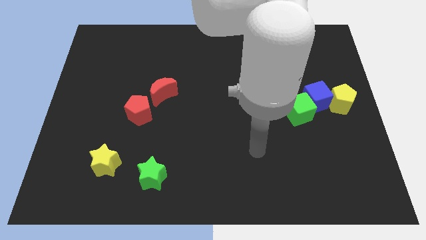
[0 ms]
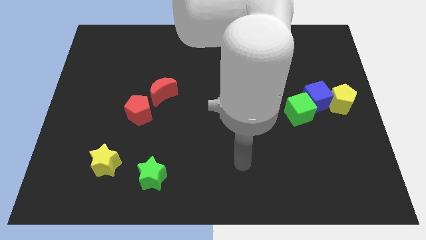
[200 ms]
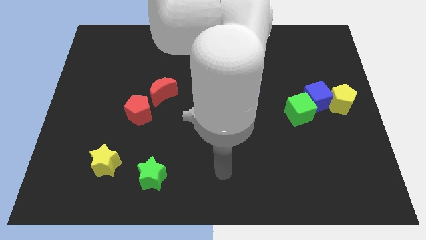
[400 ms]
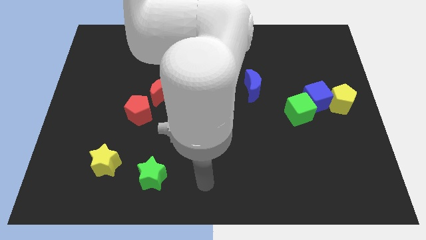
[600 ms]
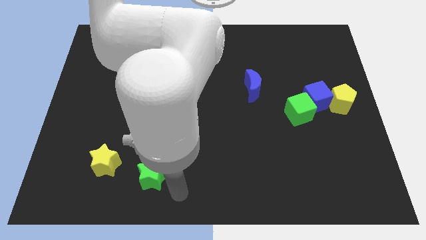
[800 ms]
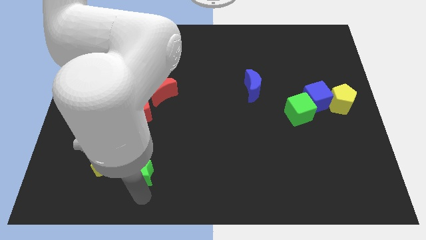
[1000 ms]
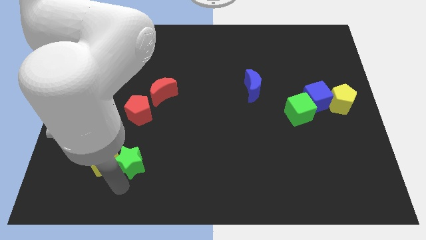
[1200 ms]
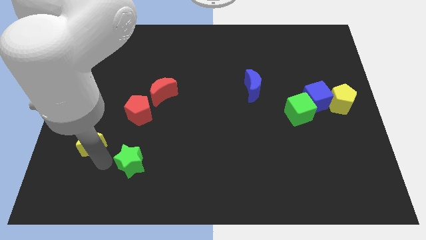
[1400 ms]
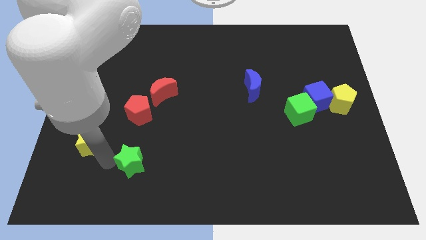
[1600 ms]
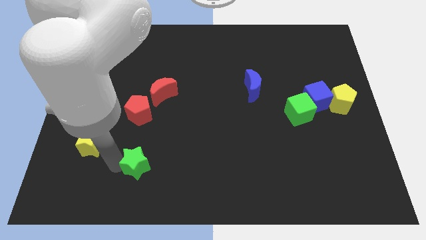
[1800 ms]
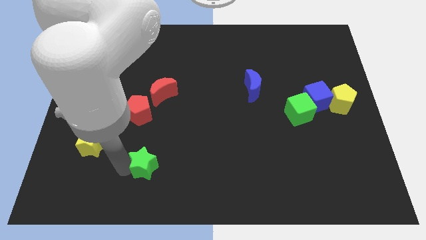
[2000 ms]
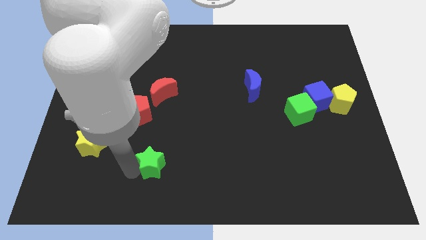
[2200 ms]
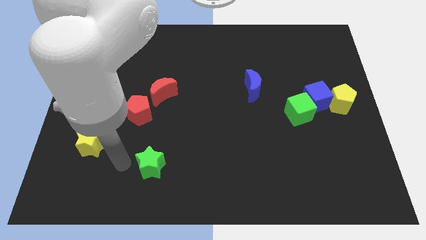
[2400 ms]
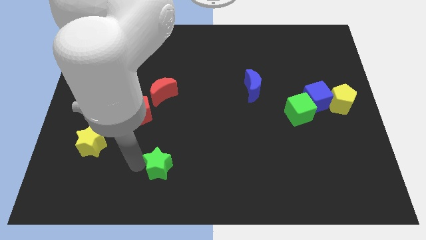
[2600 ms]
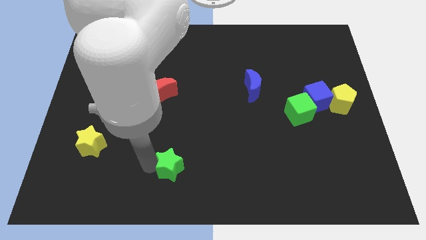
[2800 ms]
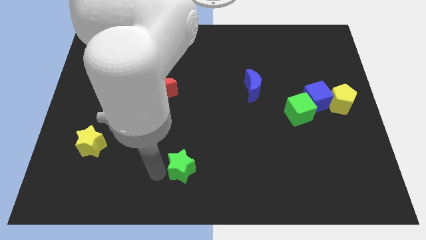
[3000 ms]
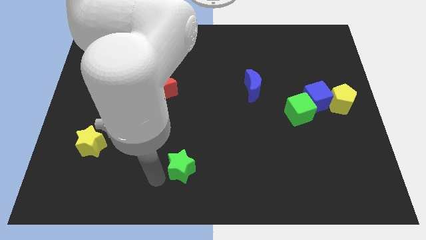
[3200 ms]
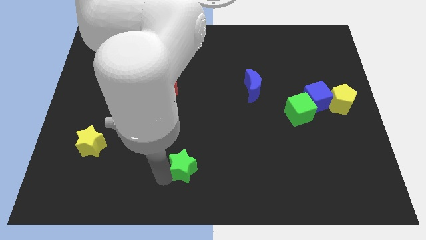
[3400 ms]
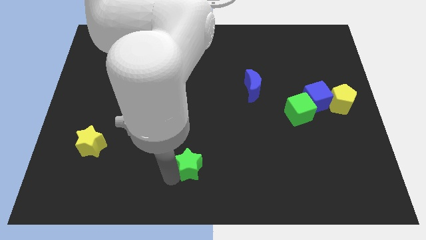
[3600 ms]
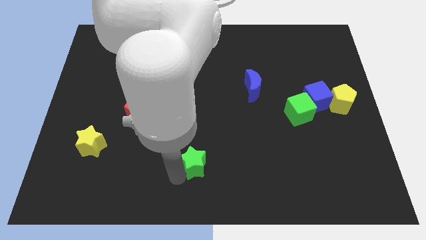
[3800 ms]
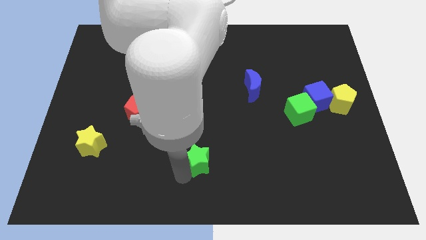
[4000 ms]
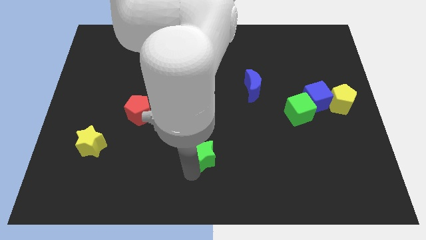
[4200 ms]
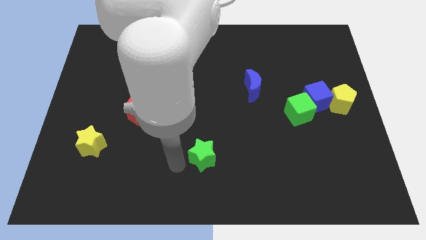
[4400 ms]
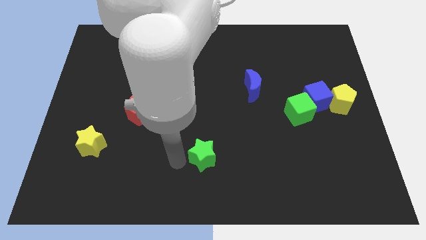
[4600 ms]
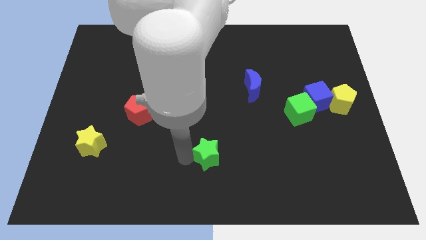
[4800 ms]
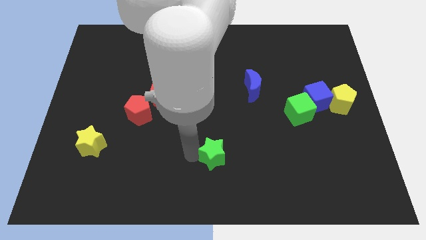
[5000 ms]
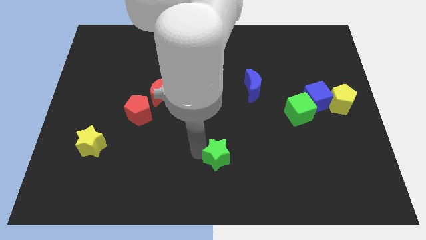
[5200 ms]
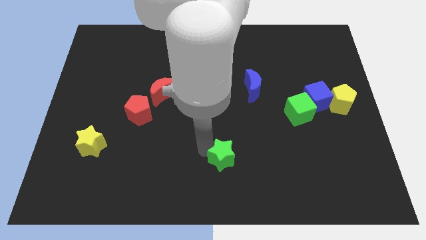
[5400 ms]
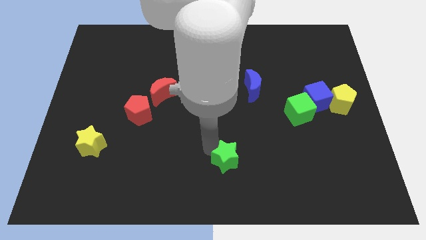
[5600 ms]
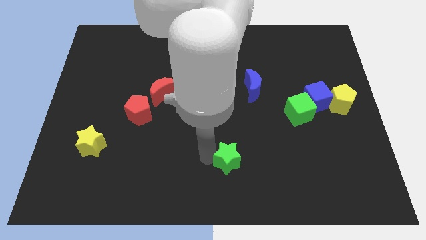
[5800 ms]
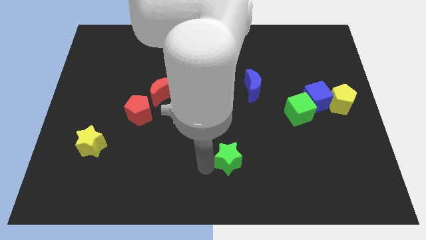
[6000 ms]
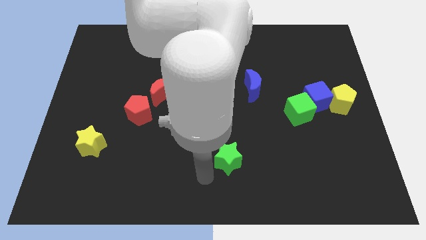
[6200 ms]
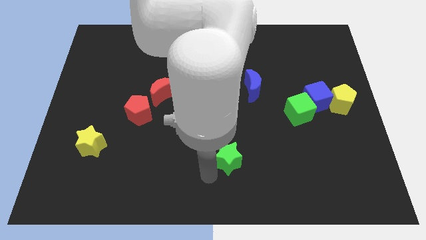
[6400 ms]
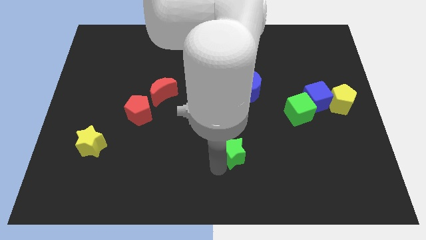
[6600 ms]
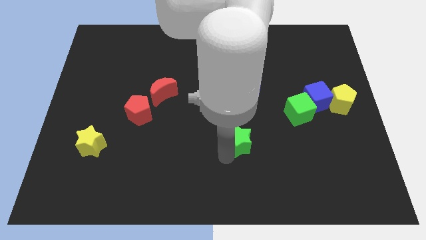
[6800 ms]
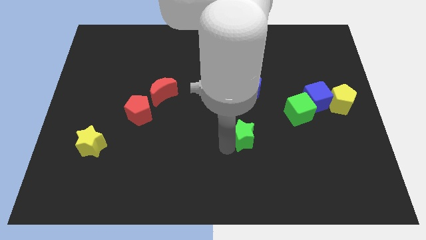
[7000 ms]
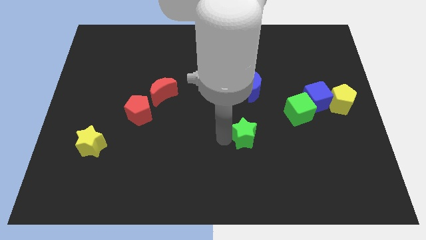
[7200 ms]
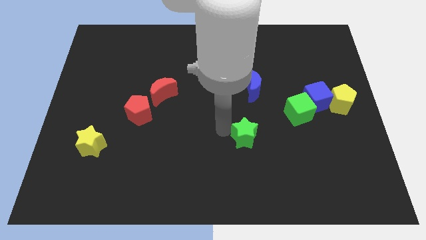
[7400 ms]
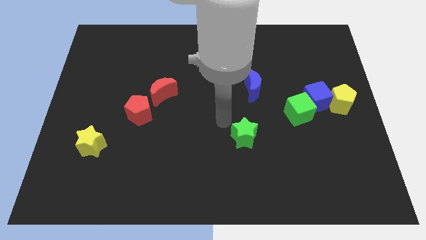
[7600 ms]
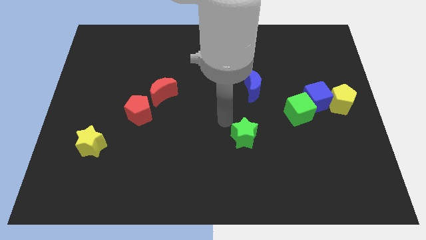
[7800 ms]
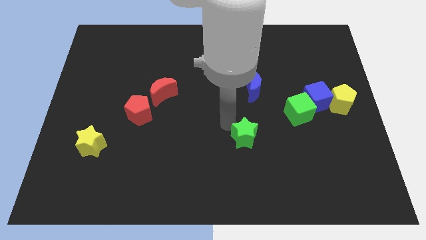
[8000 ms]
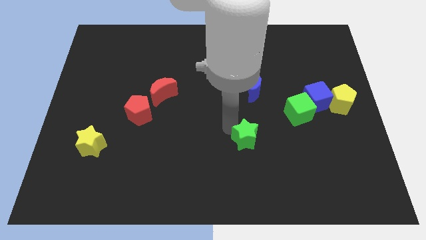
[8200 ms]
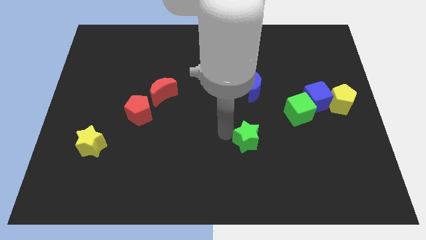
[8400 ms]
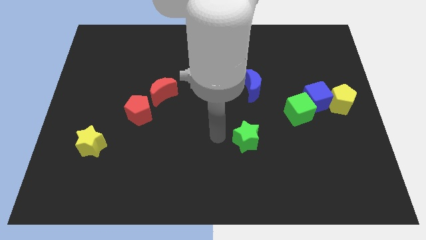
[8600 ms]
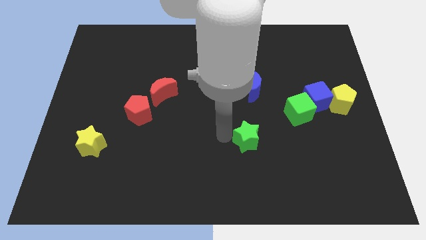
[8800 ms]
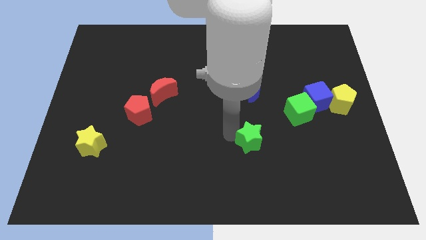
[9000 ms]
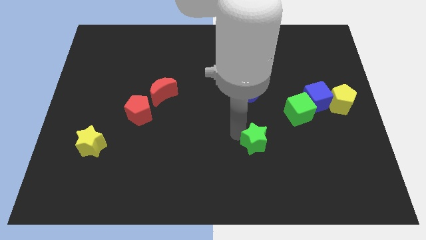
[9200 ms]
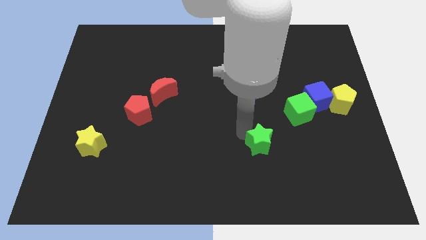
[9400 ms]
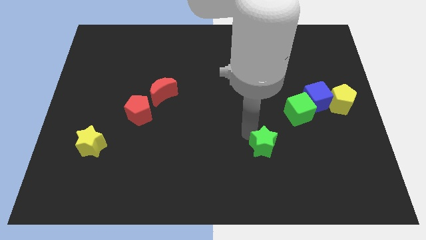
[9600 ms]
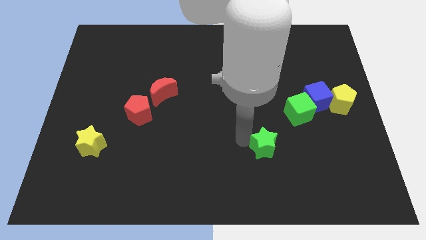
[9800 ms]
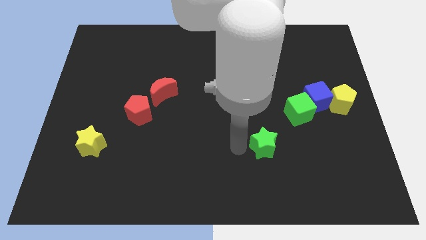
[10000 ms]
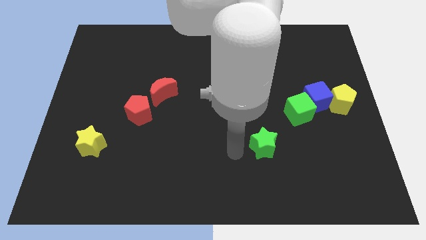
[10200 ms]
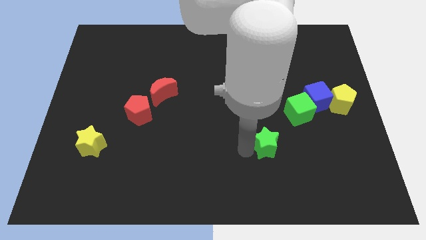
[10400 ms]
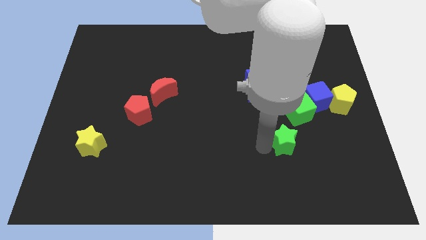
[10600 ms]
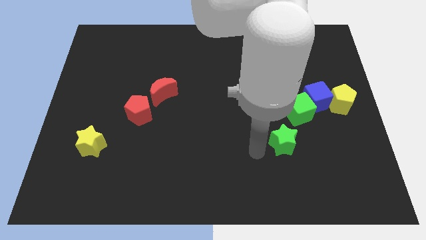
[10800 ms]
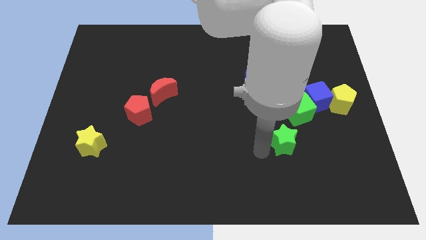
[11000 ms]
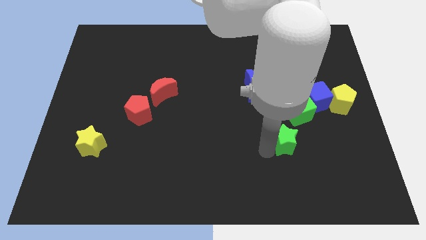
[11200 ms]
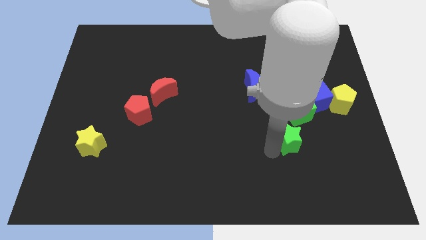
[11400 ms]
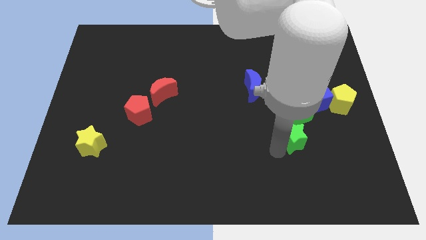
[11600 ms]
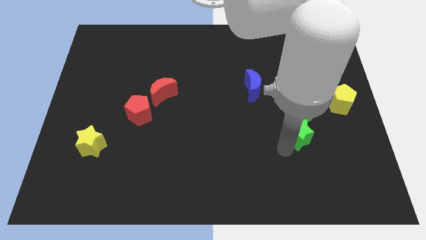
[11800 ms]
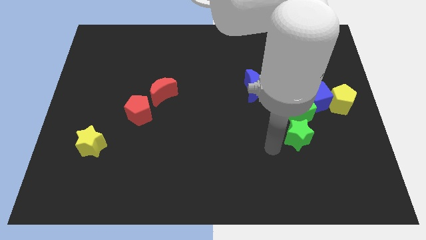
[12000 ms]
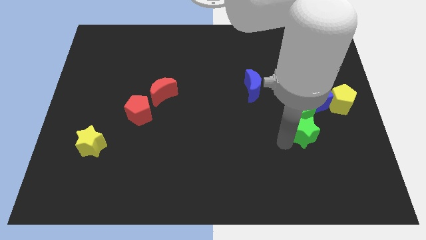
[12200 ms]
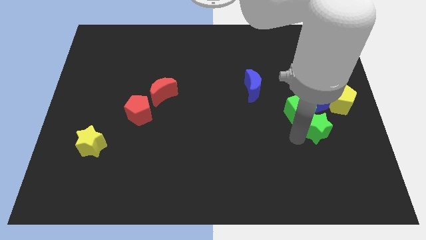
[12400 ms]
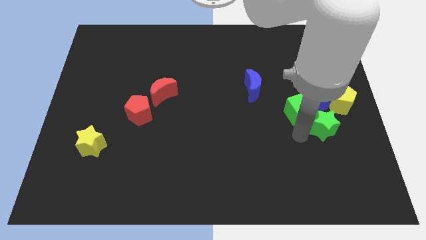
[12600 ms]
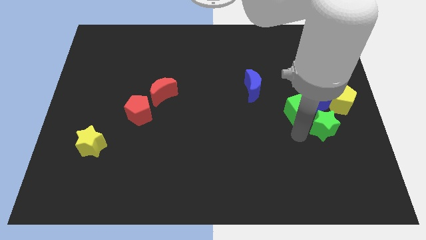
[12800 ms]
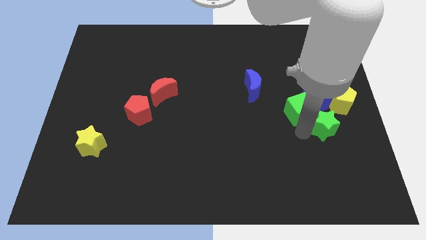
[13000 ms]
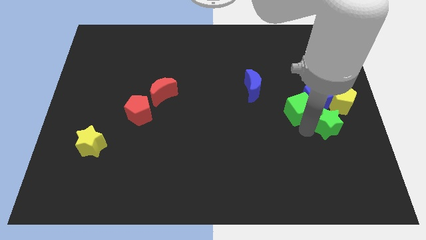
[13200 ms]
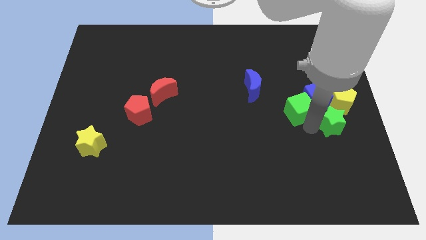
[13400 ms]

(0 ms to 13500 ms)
push the green star to the right side of the board

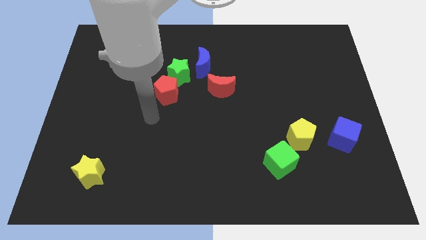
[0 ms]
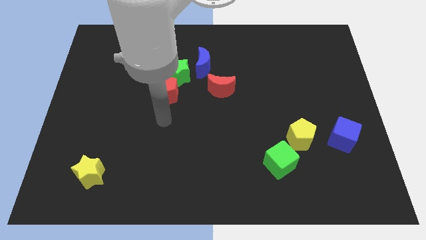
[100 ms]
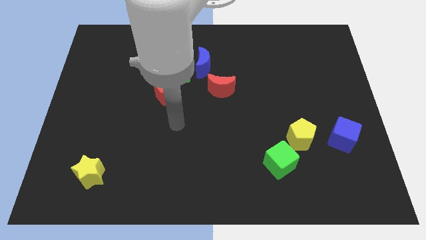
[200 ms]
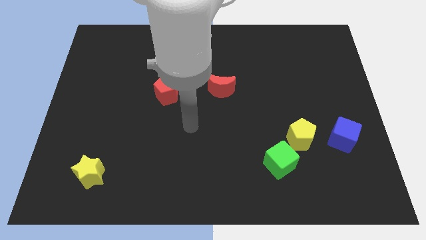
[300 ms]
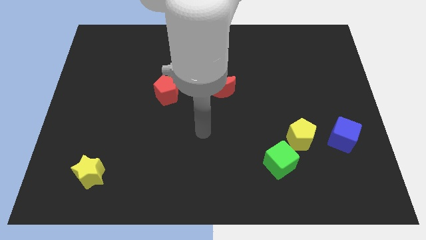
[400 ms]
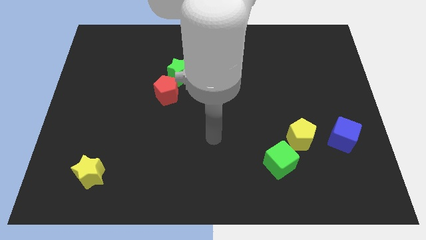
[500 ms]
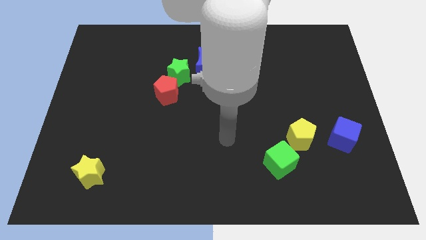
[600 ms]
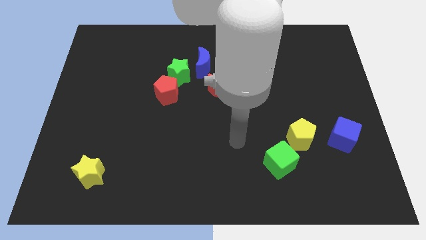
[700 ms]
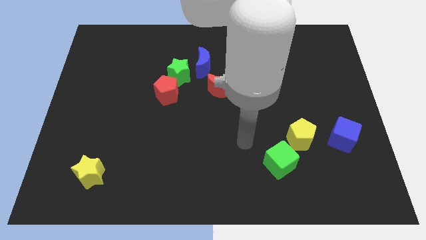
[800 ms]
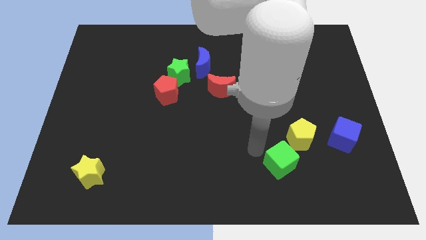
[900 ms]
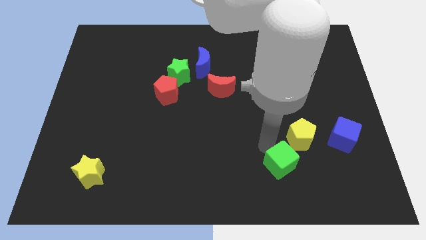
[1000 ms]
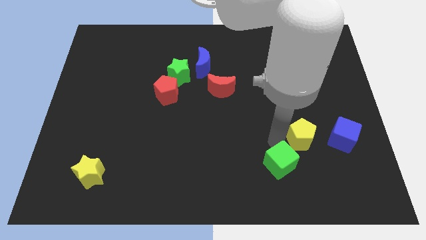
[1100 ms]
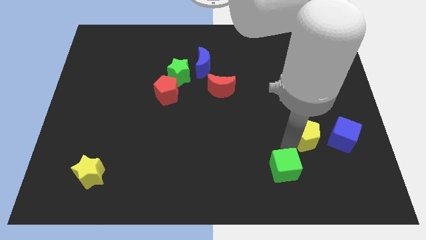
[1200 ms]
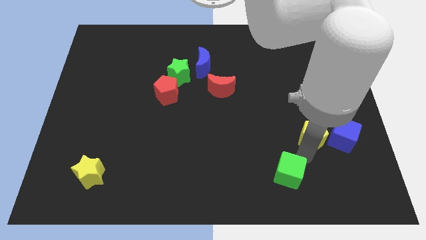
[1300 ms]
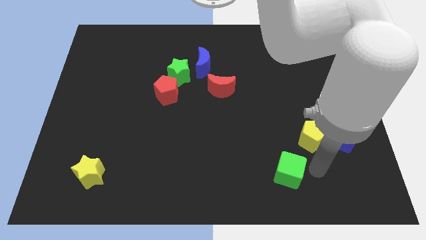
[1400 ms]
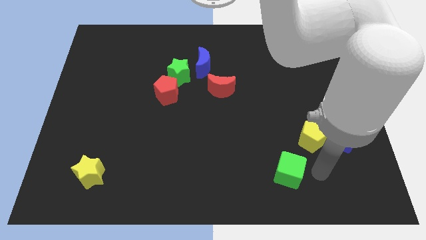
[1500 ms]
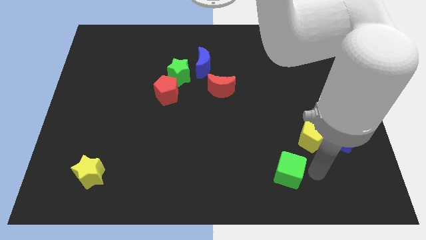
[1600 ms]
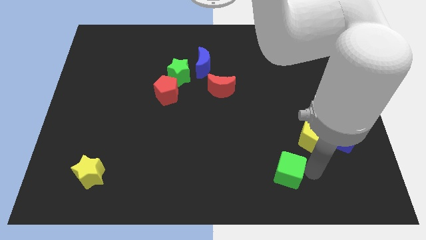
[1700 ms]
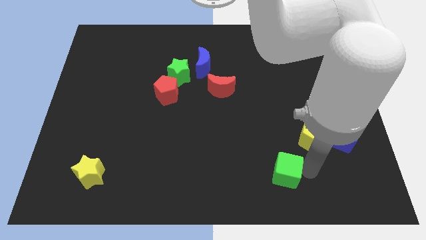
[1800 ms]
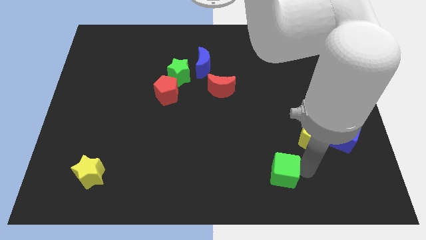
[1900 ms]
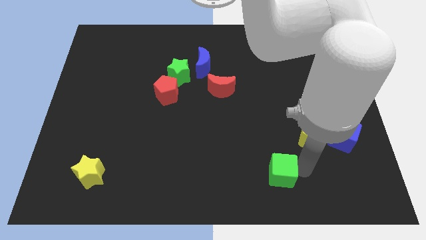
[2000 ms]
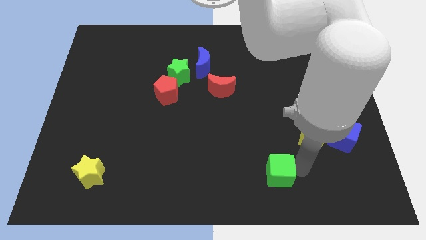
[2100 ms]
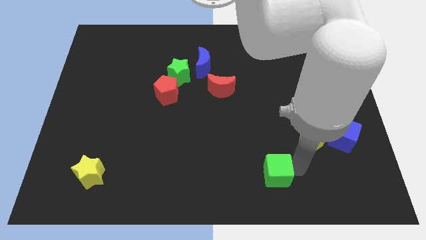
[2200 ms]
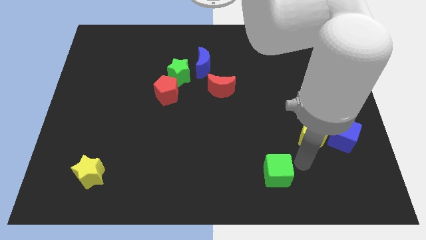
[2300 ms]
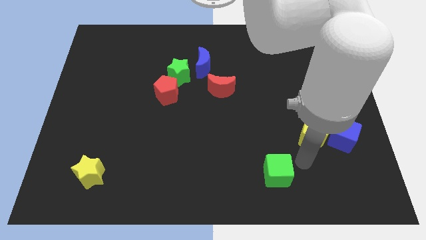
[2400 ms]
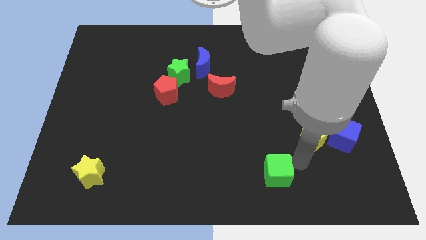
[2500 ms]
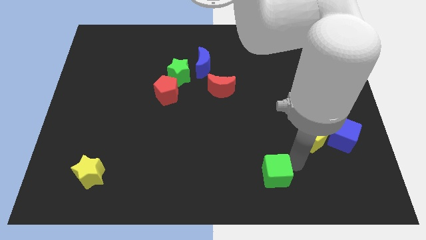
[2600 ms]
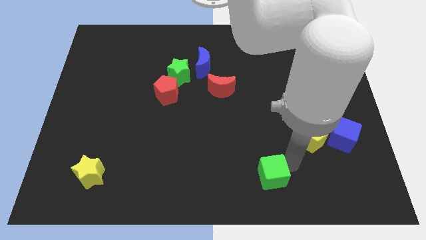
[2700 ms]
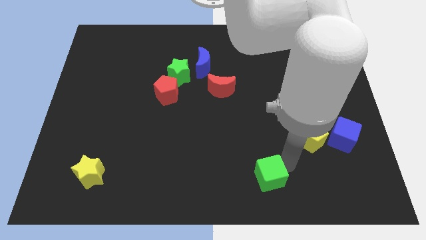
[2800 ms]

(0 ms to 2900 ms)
move the green cube to the bottom
